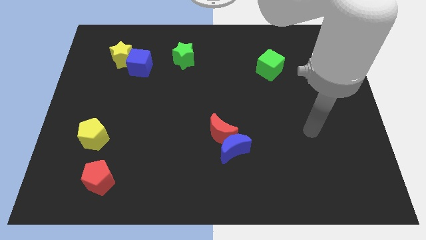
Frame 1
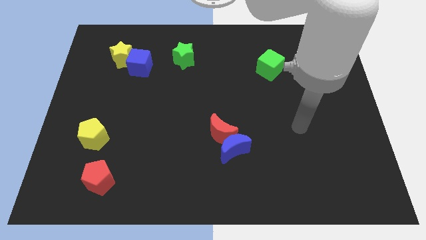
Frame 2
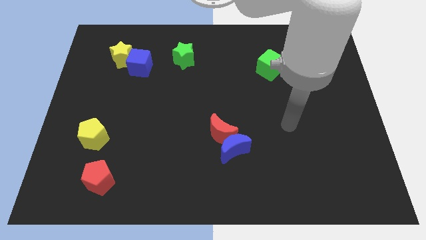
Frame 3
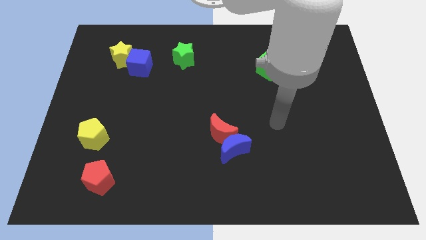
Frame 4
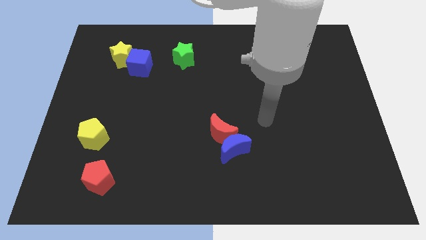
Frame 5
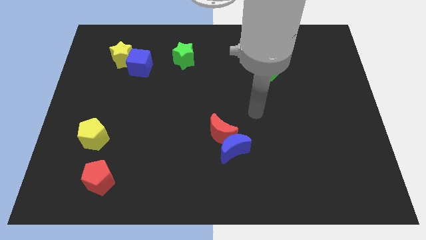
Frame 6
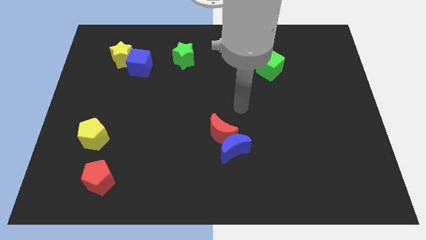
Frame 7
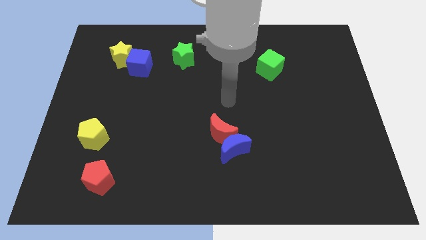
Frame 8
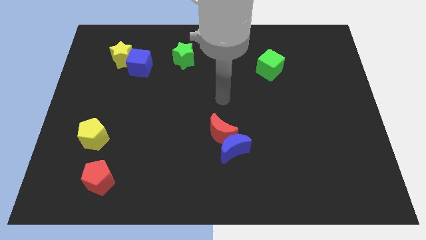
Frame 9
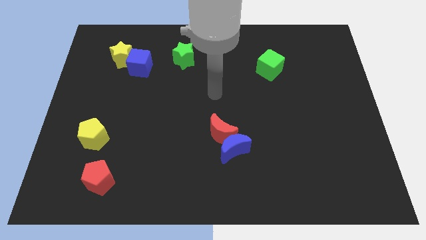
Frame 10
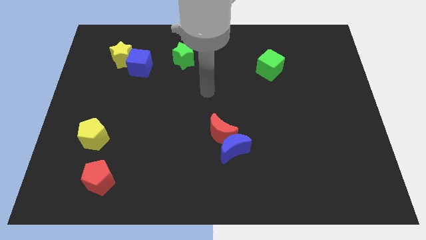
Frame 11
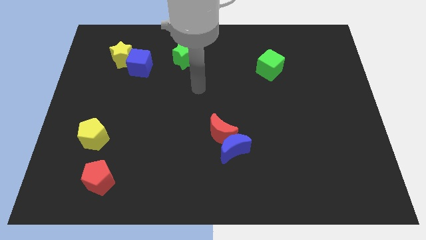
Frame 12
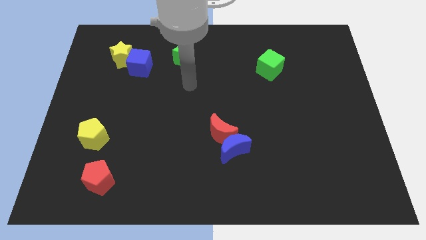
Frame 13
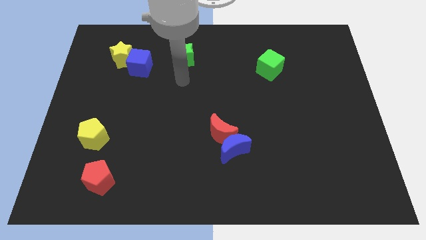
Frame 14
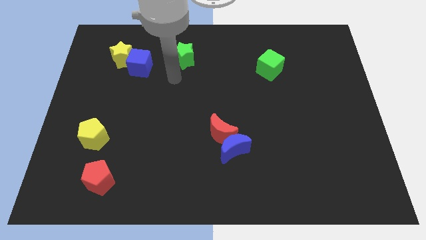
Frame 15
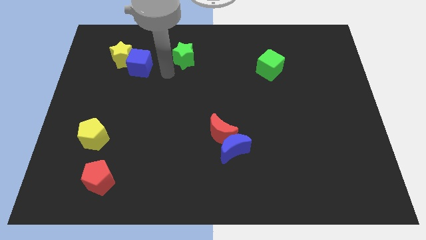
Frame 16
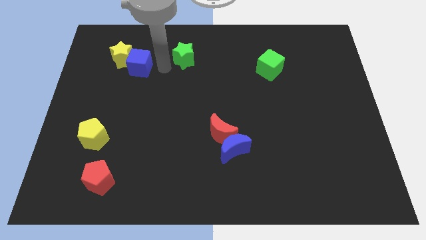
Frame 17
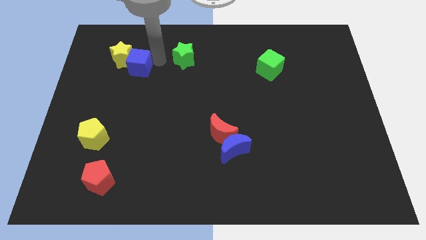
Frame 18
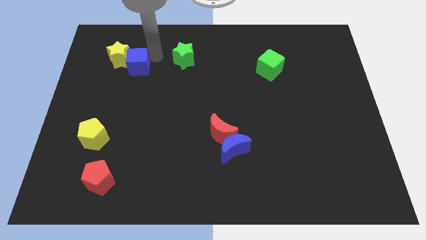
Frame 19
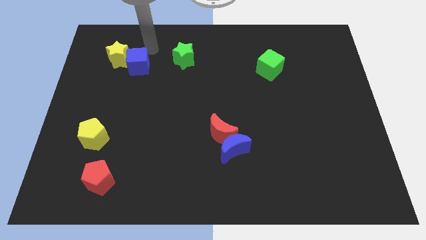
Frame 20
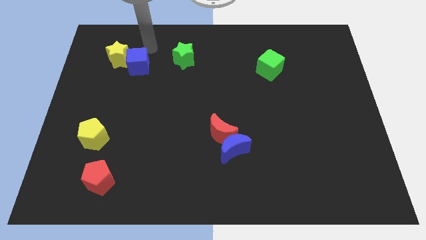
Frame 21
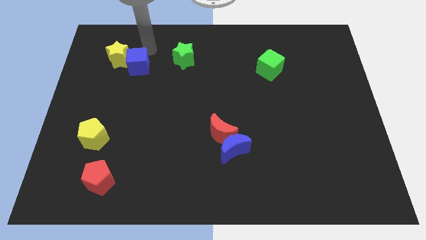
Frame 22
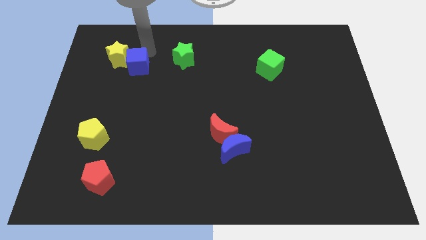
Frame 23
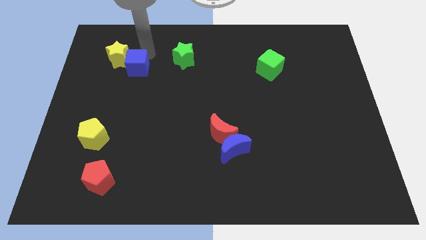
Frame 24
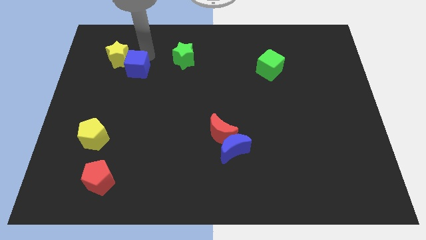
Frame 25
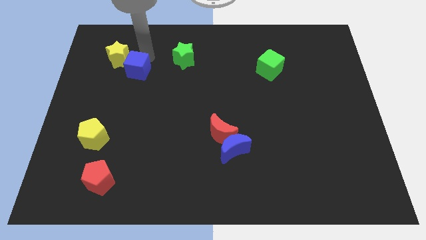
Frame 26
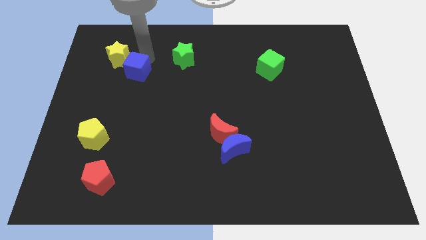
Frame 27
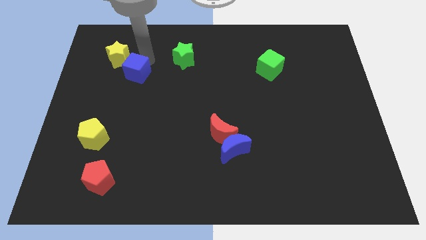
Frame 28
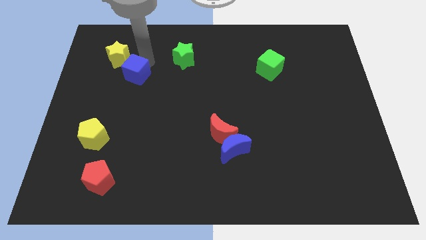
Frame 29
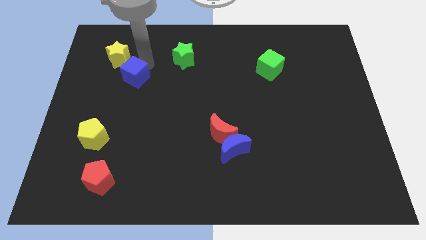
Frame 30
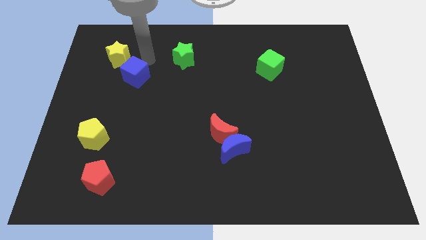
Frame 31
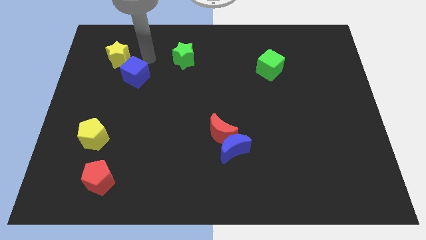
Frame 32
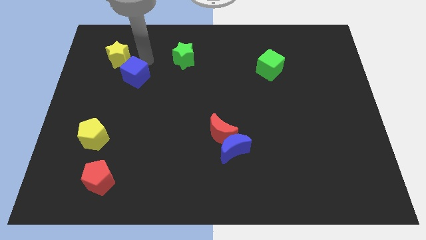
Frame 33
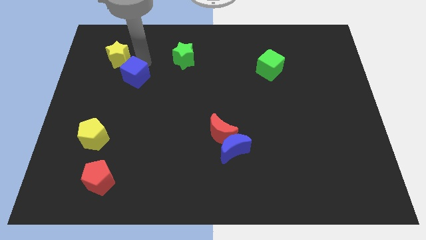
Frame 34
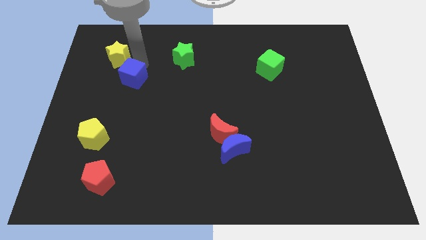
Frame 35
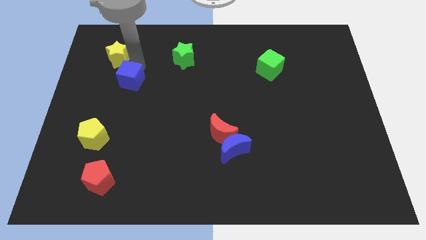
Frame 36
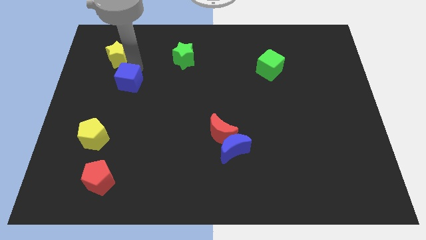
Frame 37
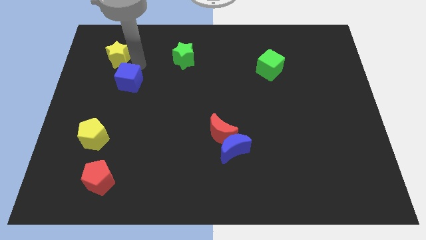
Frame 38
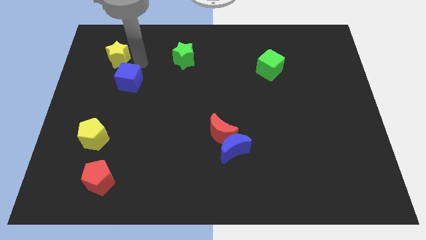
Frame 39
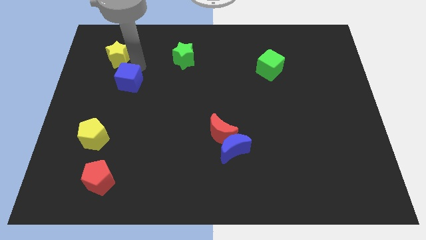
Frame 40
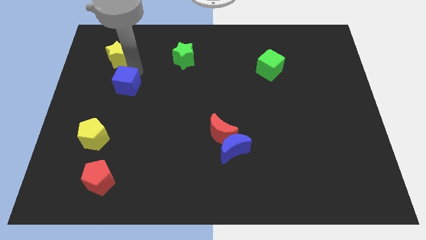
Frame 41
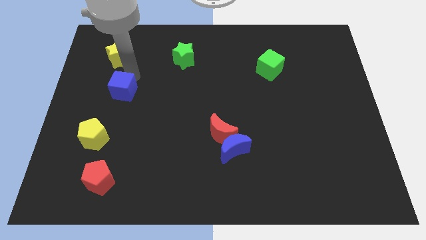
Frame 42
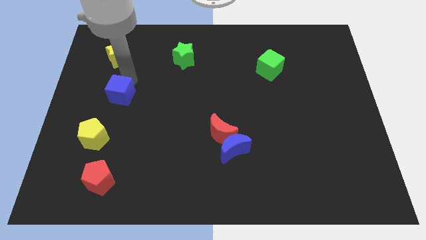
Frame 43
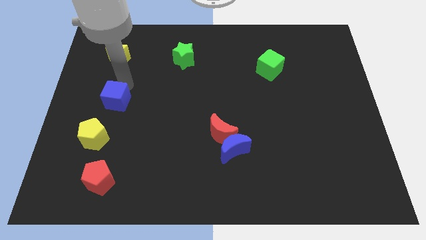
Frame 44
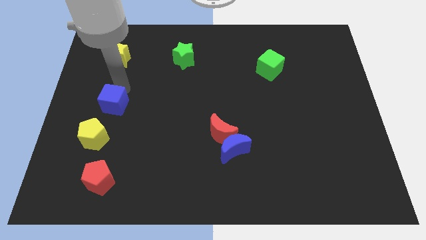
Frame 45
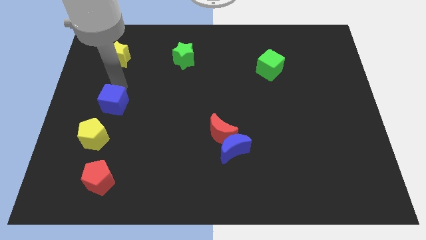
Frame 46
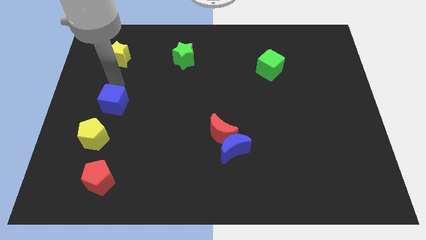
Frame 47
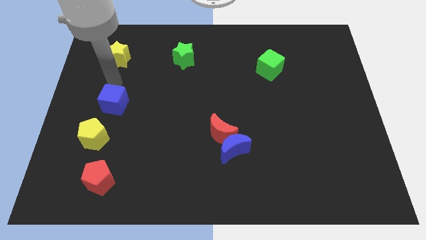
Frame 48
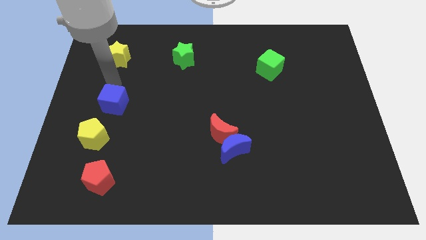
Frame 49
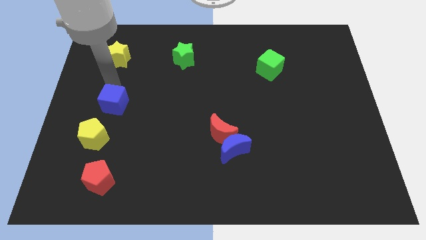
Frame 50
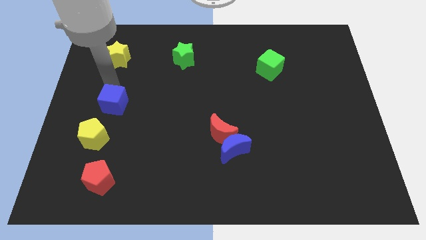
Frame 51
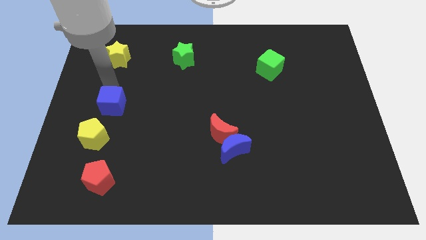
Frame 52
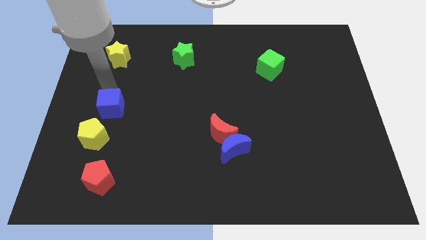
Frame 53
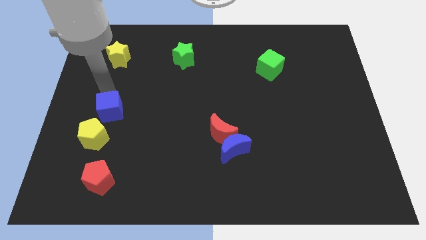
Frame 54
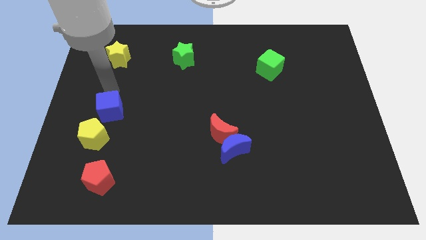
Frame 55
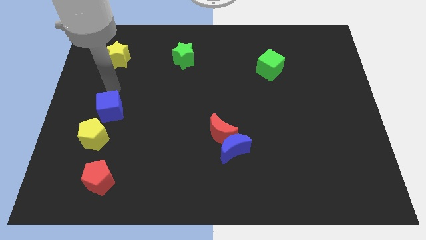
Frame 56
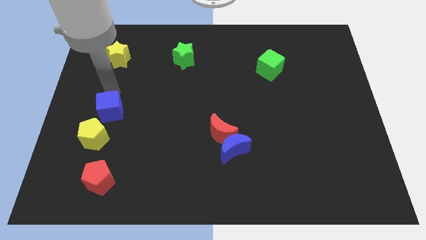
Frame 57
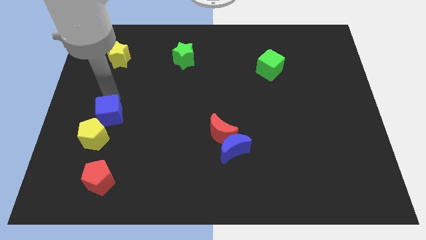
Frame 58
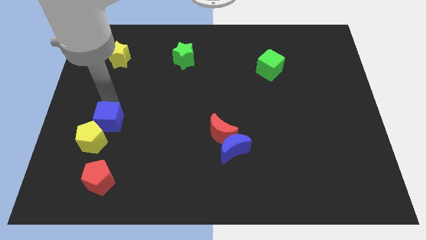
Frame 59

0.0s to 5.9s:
move the blue cube above the red pentagon
